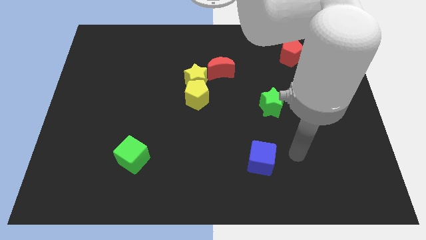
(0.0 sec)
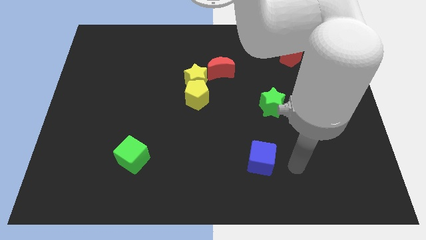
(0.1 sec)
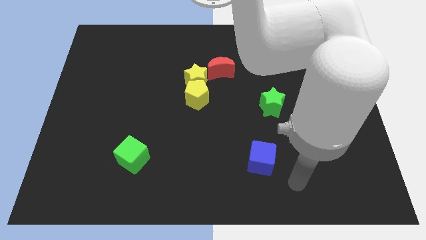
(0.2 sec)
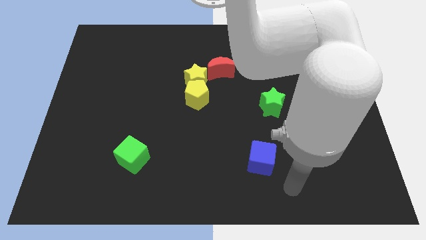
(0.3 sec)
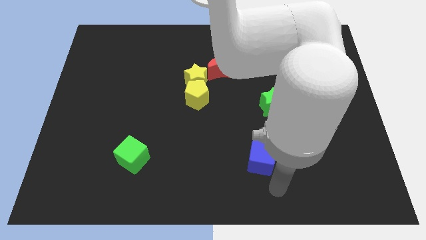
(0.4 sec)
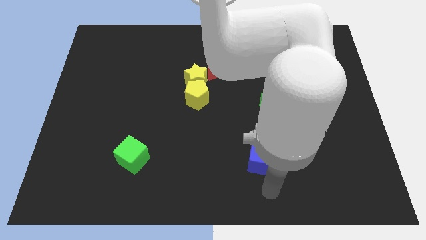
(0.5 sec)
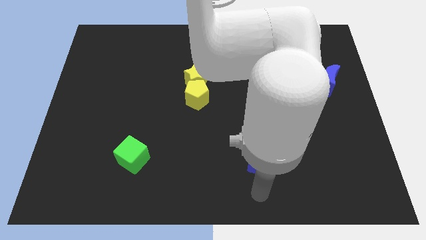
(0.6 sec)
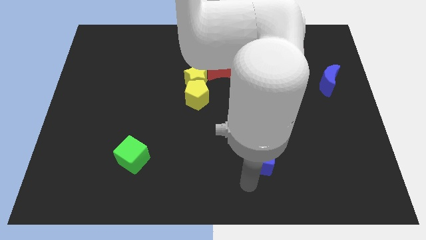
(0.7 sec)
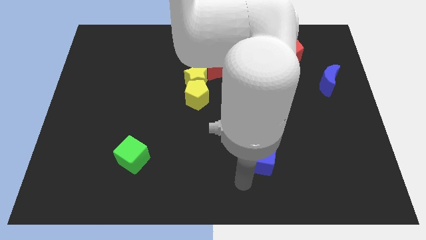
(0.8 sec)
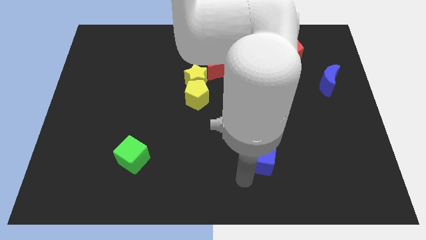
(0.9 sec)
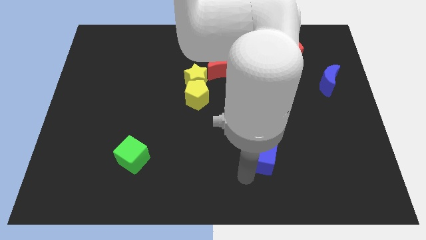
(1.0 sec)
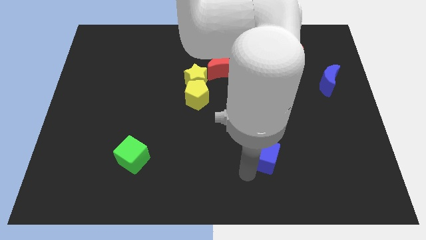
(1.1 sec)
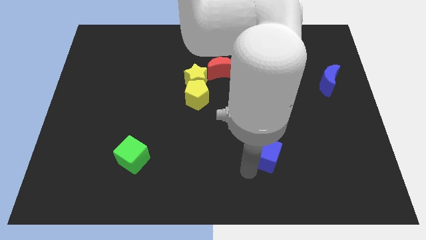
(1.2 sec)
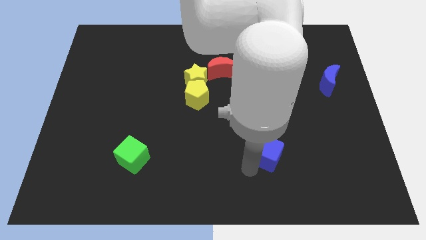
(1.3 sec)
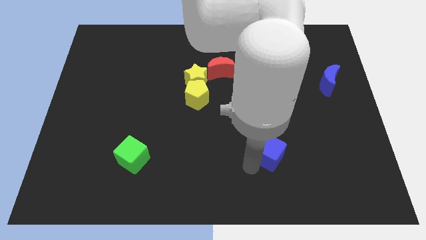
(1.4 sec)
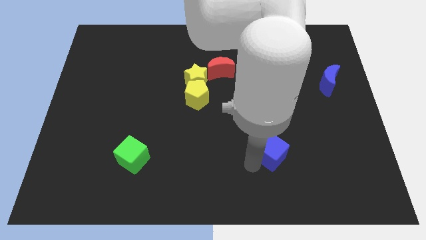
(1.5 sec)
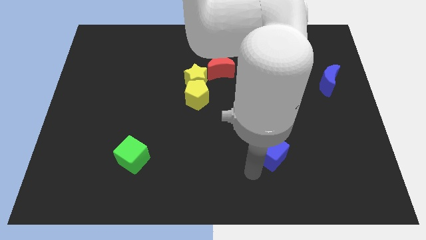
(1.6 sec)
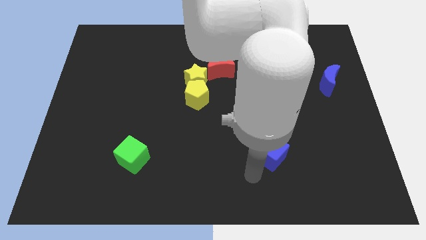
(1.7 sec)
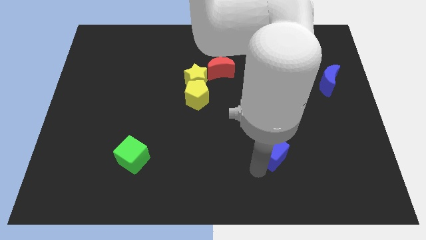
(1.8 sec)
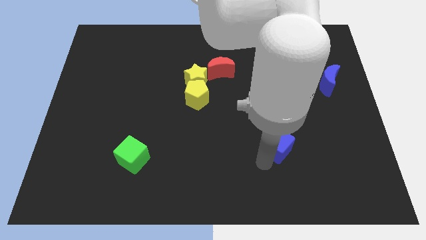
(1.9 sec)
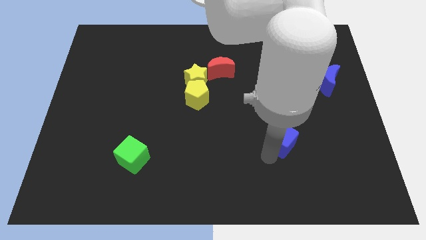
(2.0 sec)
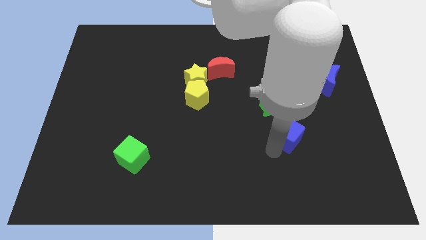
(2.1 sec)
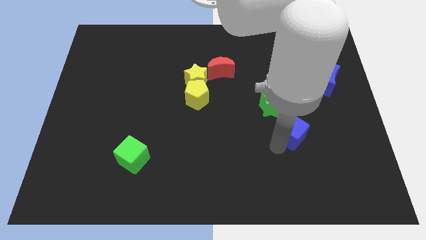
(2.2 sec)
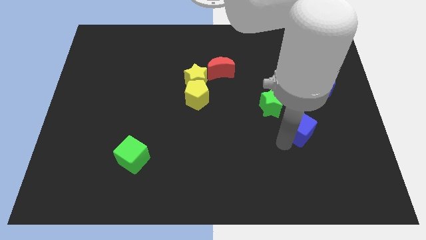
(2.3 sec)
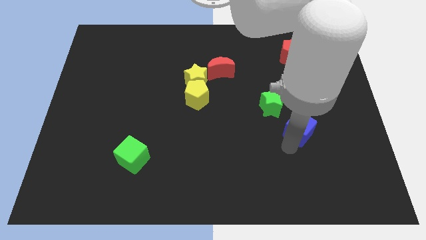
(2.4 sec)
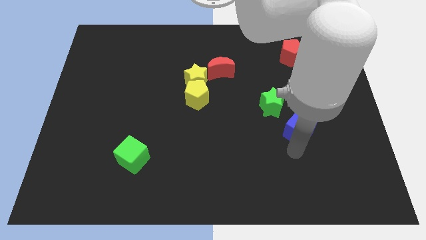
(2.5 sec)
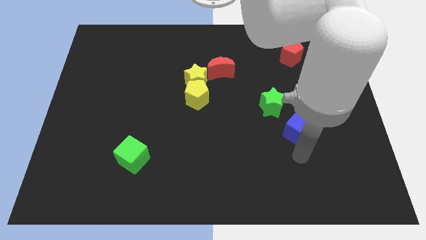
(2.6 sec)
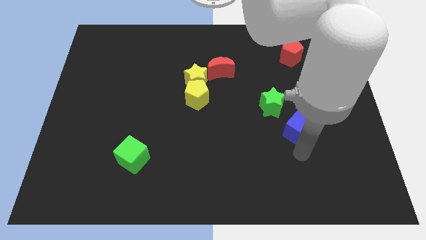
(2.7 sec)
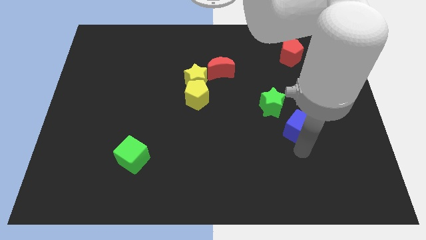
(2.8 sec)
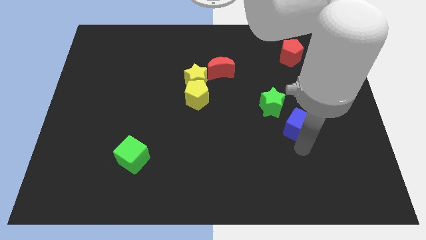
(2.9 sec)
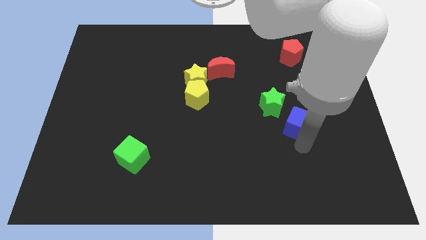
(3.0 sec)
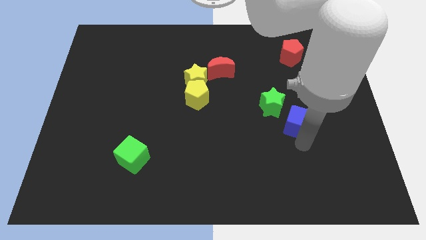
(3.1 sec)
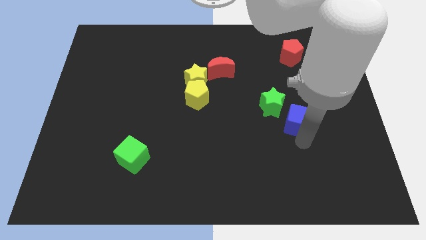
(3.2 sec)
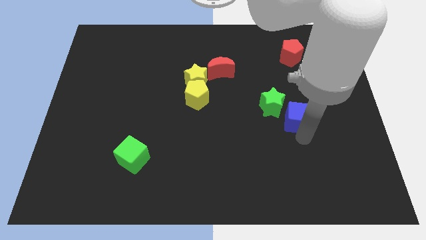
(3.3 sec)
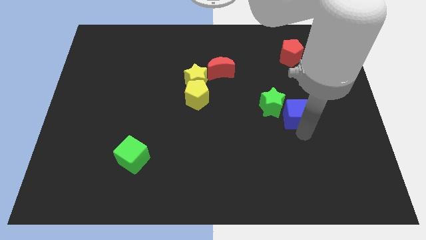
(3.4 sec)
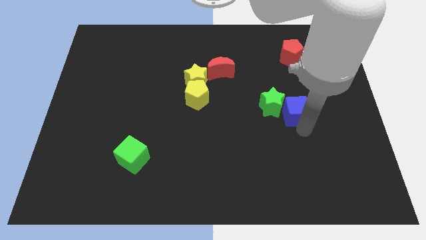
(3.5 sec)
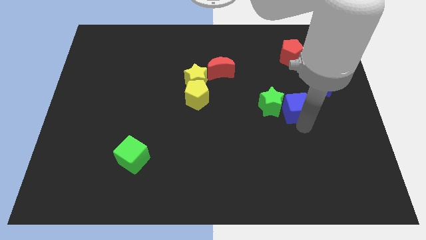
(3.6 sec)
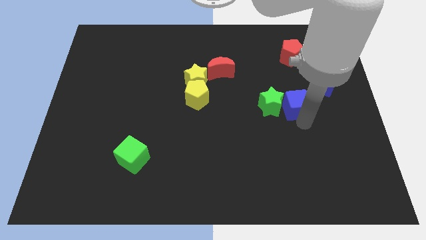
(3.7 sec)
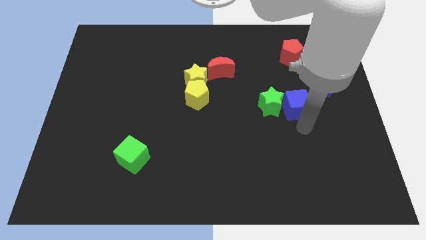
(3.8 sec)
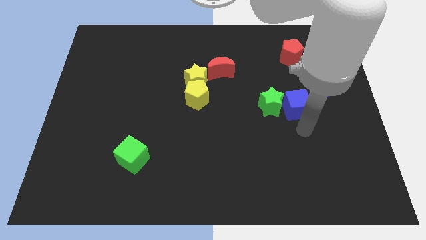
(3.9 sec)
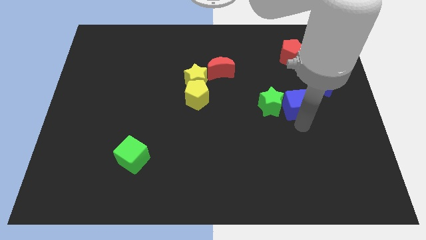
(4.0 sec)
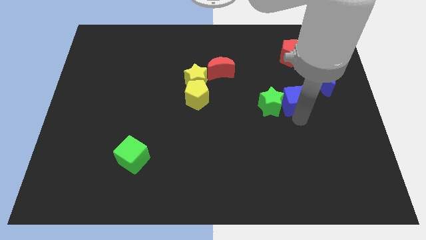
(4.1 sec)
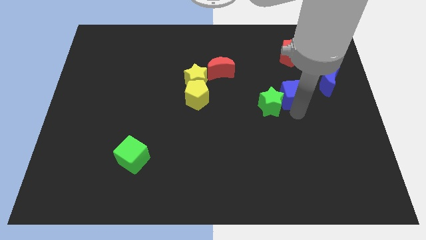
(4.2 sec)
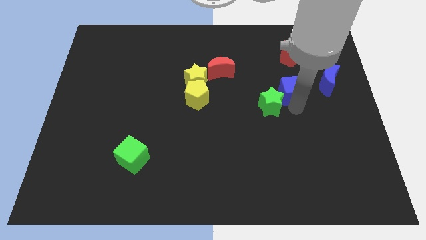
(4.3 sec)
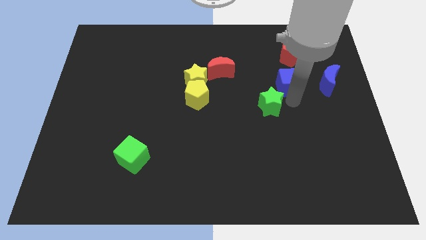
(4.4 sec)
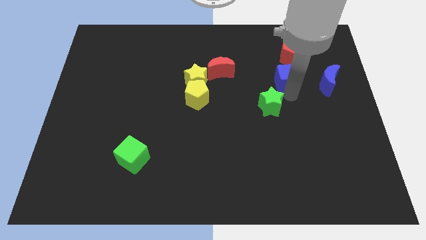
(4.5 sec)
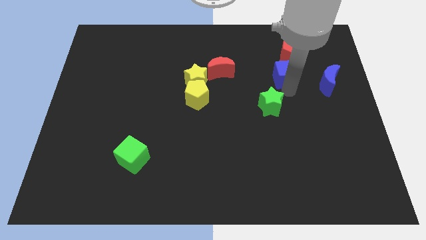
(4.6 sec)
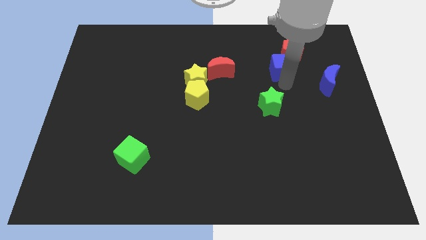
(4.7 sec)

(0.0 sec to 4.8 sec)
put the blue cube to the red pentagon

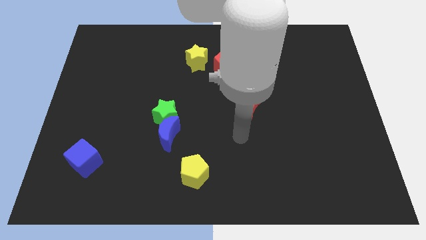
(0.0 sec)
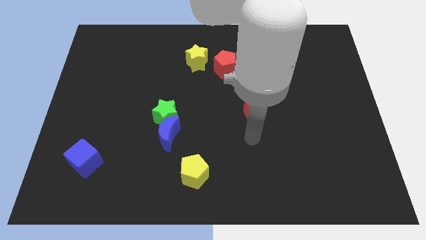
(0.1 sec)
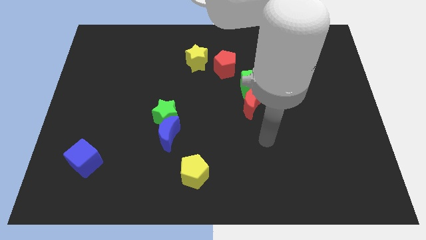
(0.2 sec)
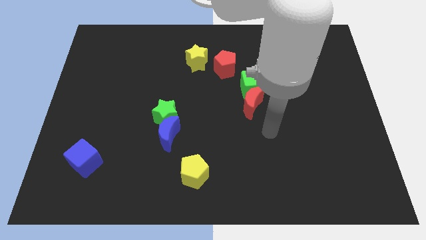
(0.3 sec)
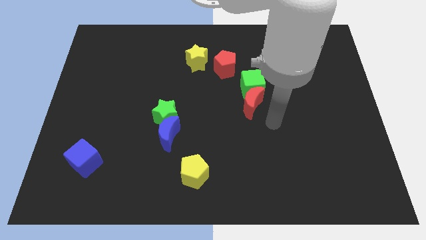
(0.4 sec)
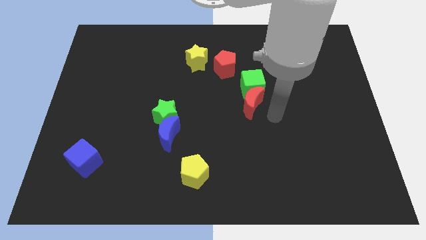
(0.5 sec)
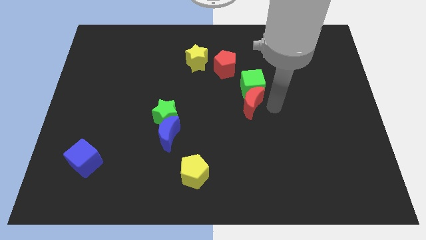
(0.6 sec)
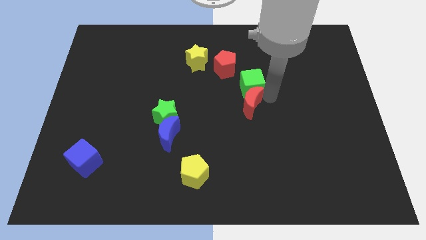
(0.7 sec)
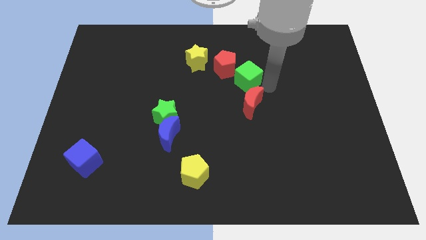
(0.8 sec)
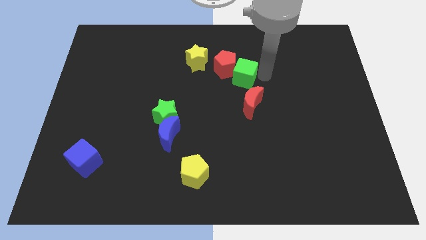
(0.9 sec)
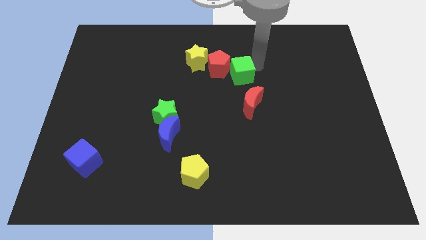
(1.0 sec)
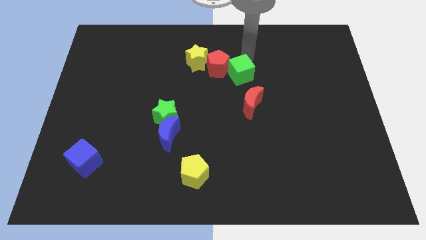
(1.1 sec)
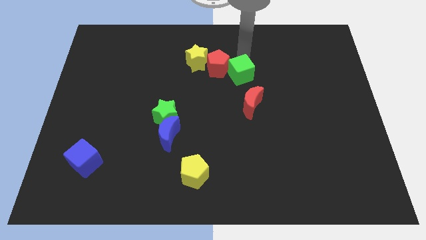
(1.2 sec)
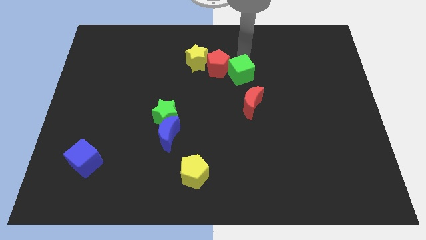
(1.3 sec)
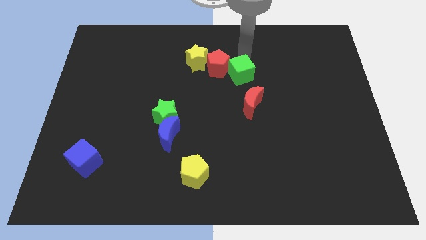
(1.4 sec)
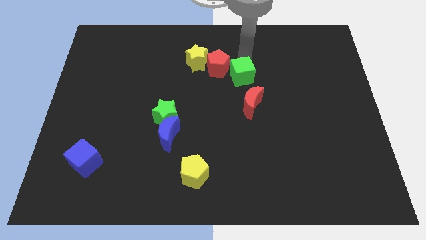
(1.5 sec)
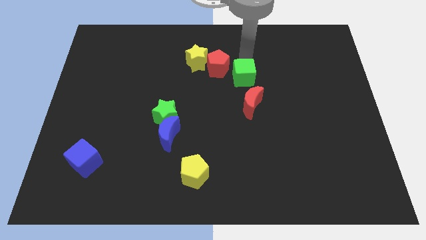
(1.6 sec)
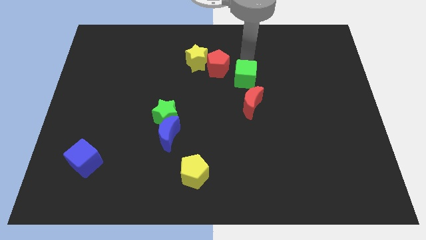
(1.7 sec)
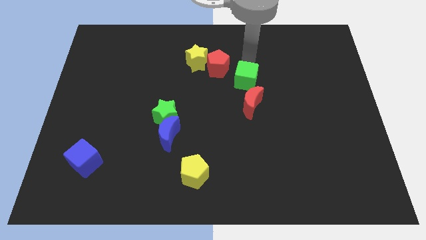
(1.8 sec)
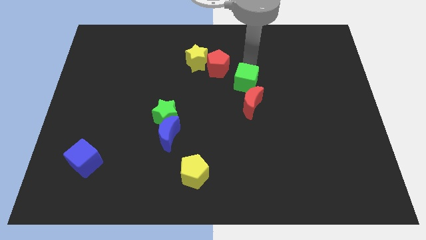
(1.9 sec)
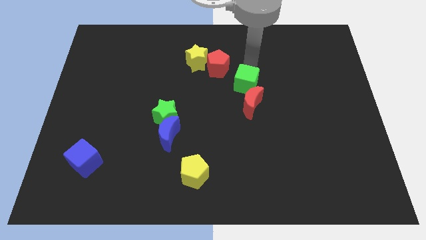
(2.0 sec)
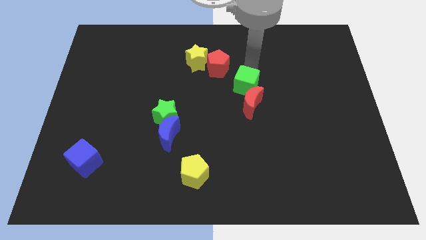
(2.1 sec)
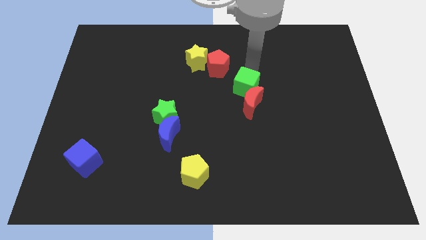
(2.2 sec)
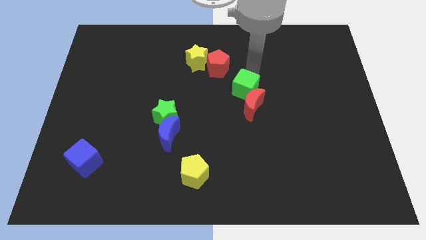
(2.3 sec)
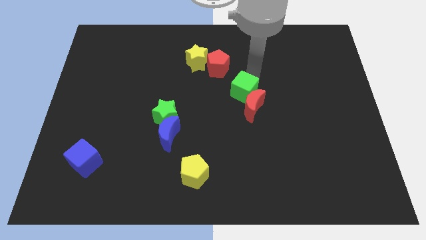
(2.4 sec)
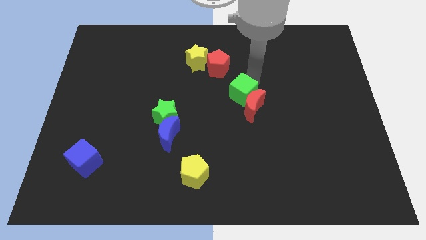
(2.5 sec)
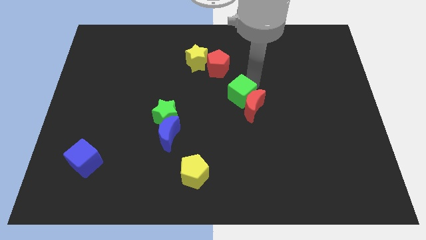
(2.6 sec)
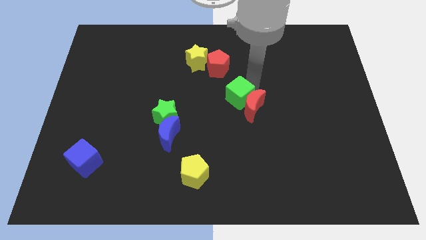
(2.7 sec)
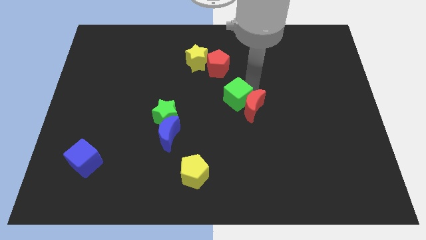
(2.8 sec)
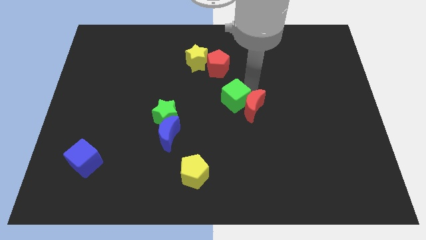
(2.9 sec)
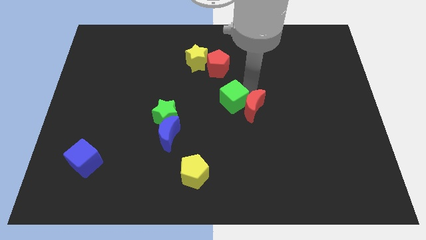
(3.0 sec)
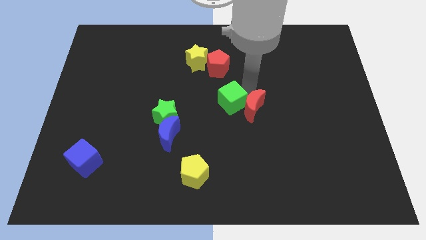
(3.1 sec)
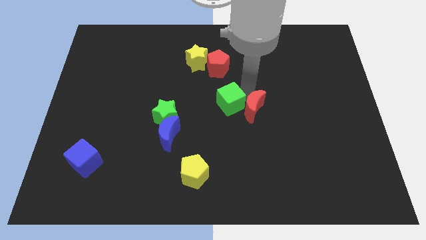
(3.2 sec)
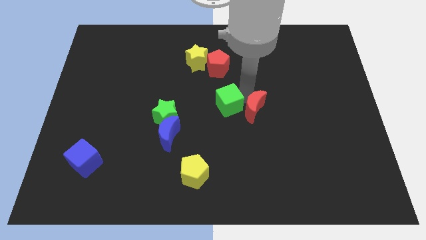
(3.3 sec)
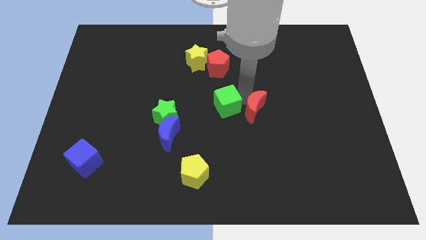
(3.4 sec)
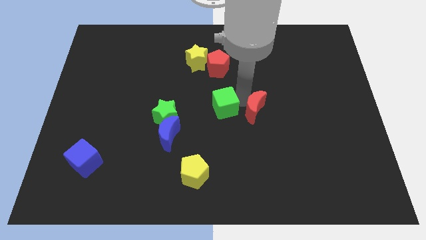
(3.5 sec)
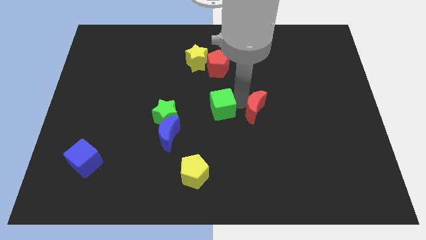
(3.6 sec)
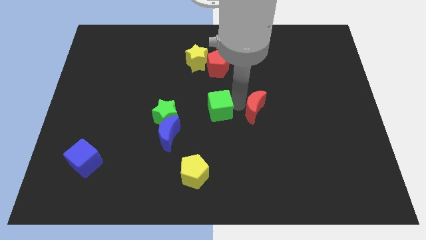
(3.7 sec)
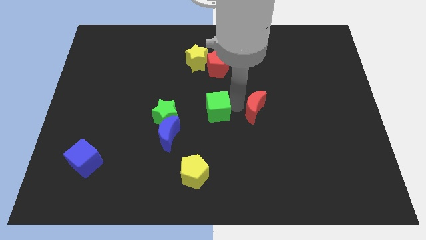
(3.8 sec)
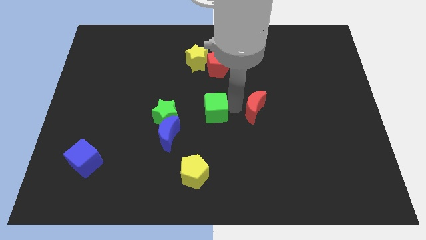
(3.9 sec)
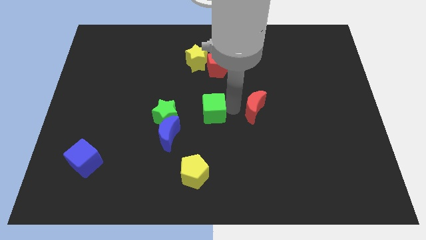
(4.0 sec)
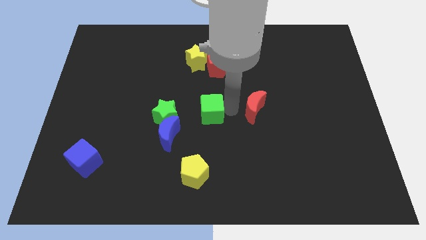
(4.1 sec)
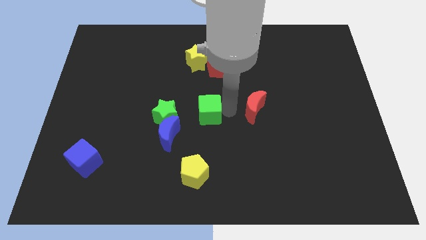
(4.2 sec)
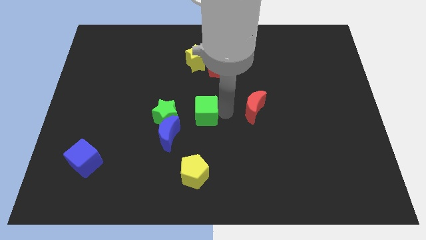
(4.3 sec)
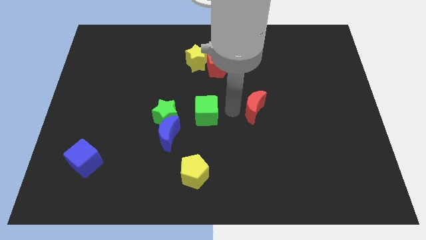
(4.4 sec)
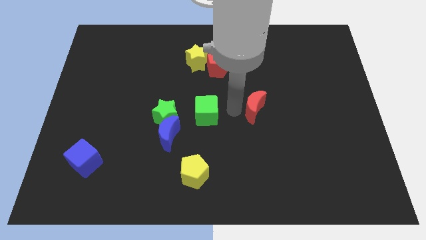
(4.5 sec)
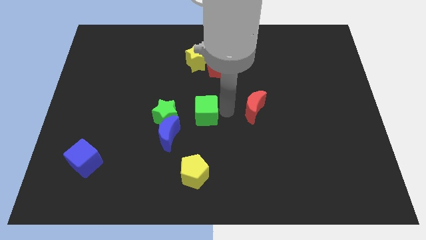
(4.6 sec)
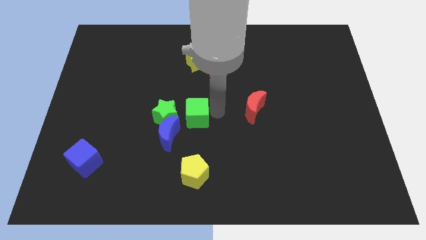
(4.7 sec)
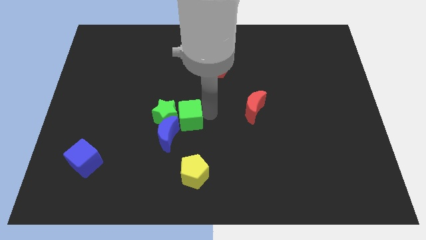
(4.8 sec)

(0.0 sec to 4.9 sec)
slide the green cube close to the green star
